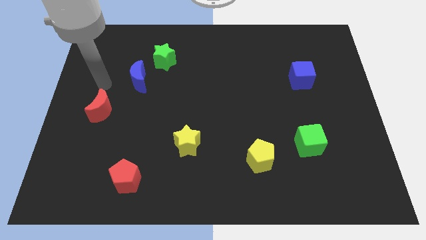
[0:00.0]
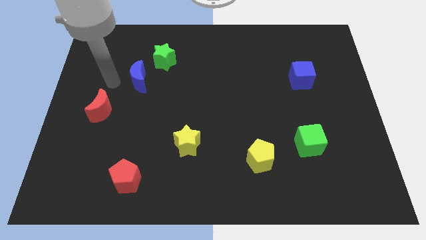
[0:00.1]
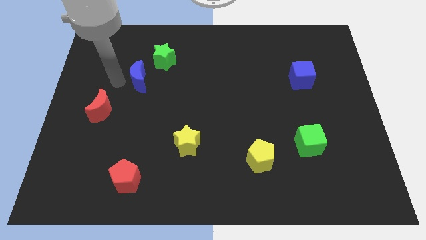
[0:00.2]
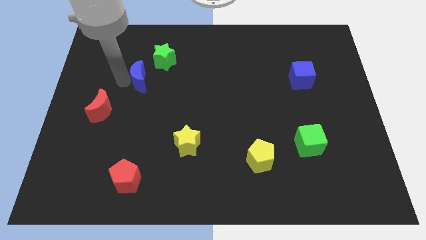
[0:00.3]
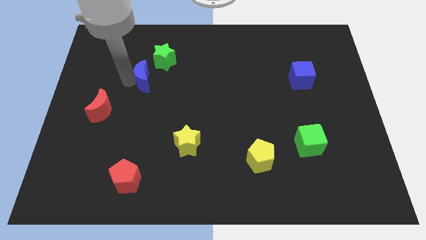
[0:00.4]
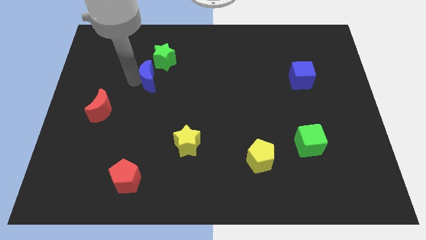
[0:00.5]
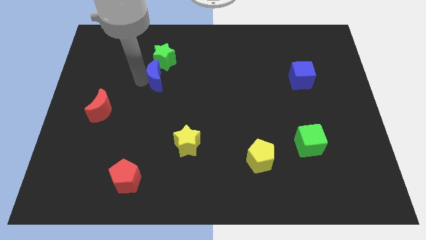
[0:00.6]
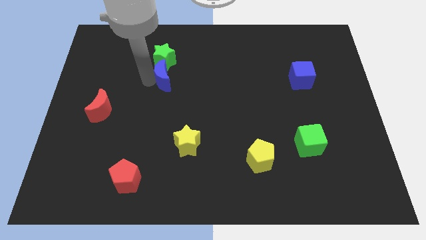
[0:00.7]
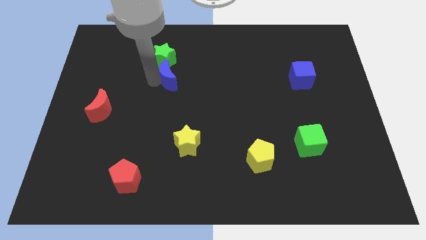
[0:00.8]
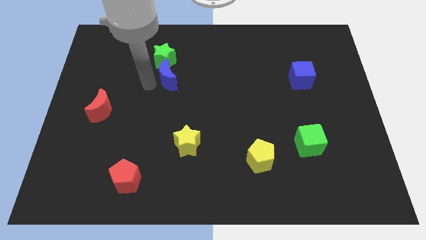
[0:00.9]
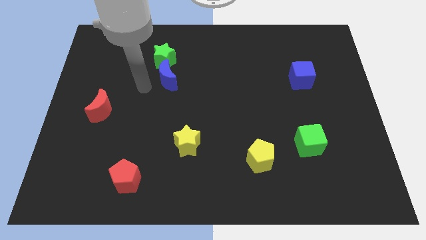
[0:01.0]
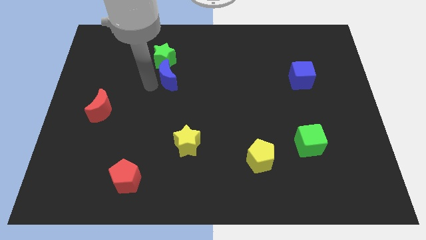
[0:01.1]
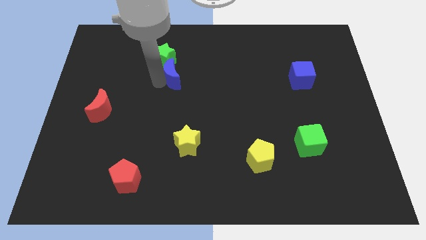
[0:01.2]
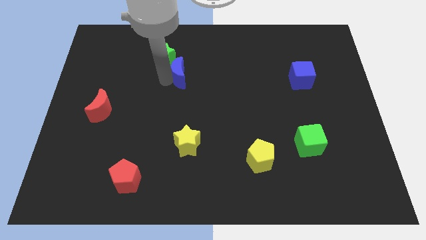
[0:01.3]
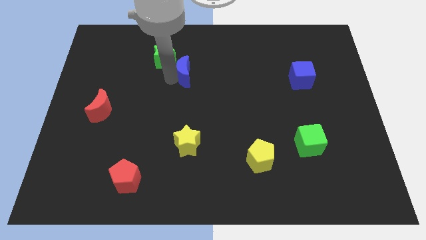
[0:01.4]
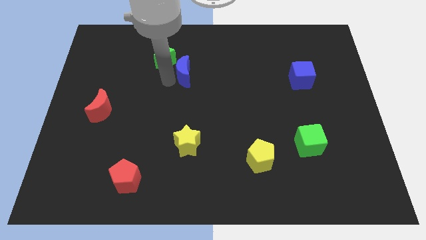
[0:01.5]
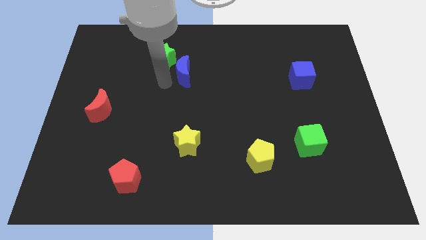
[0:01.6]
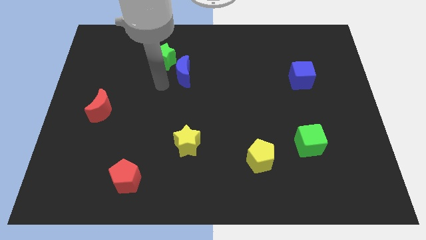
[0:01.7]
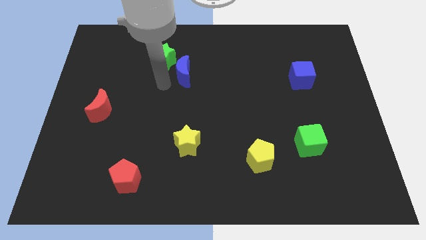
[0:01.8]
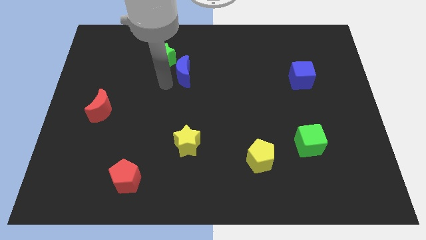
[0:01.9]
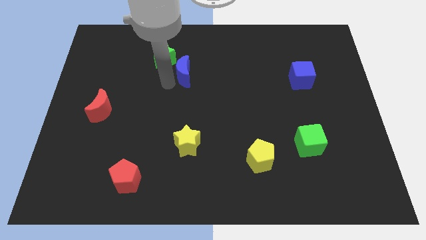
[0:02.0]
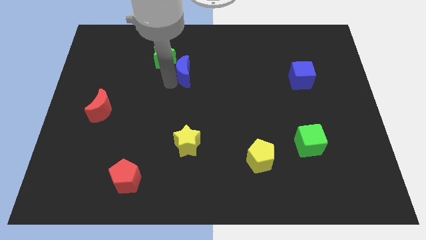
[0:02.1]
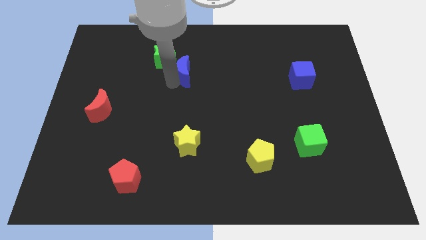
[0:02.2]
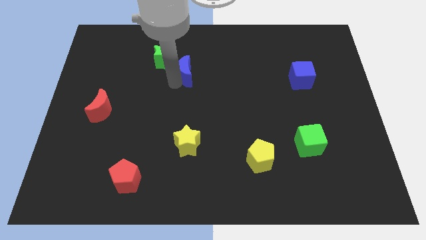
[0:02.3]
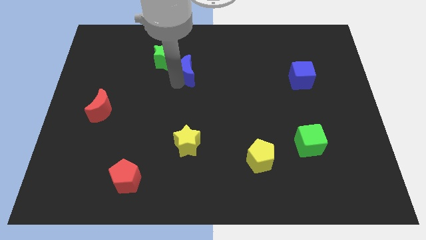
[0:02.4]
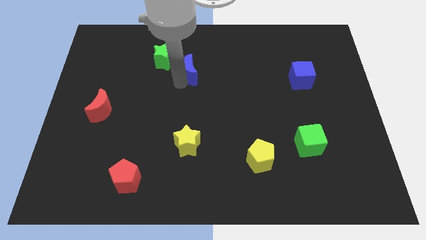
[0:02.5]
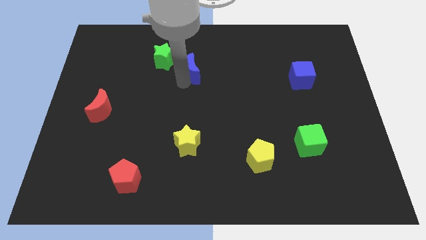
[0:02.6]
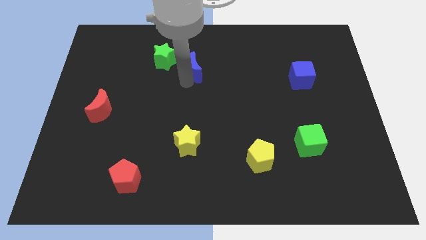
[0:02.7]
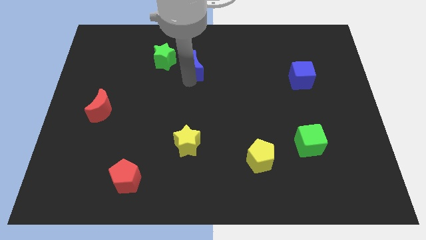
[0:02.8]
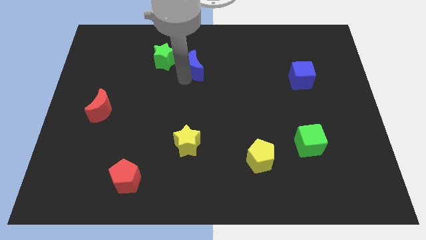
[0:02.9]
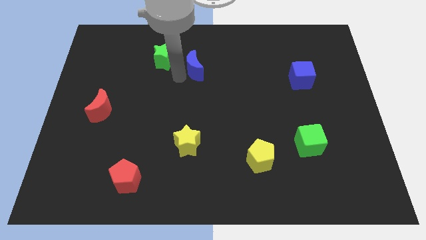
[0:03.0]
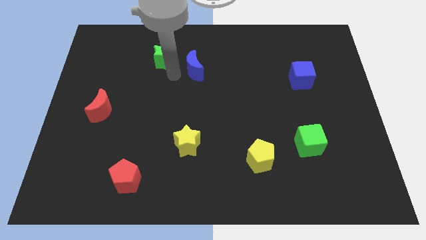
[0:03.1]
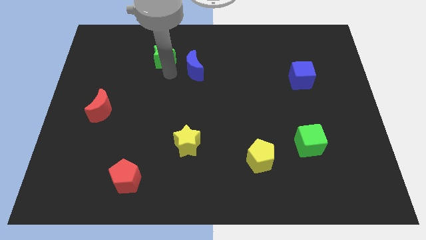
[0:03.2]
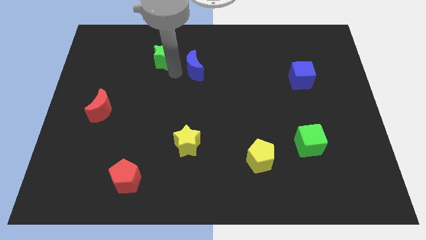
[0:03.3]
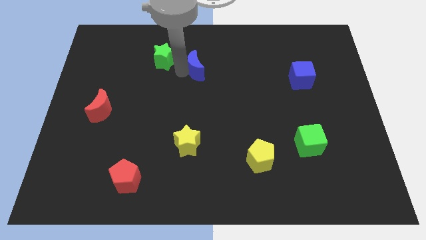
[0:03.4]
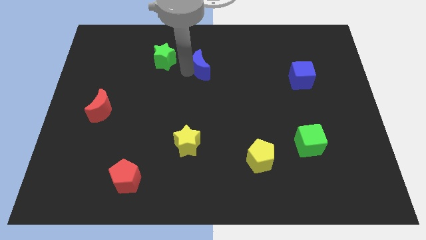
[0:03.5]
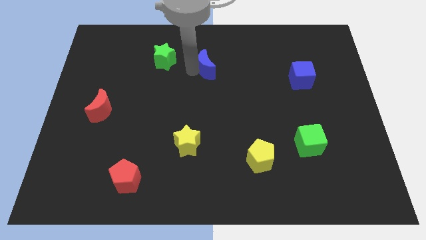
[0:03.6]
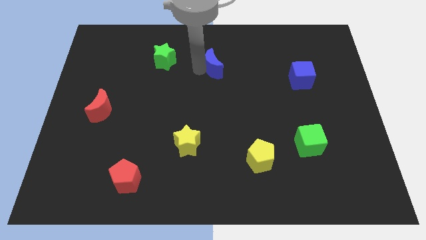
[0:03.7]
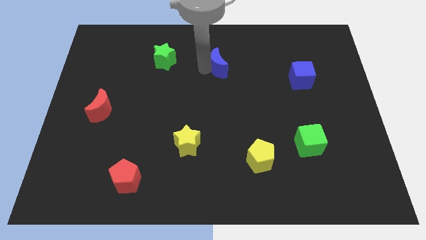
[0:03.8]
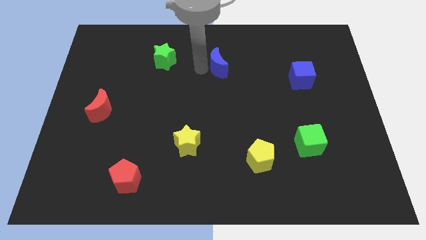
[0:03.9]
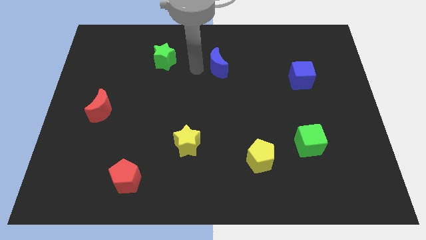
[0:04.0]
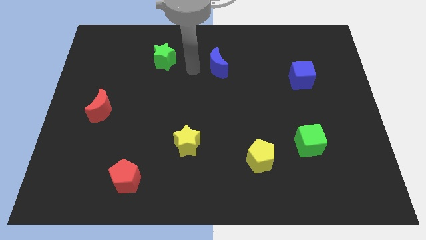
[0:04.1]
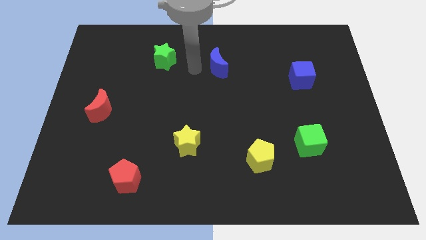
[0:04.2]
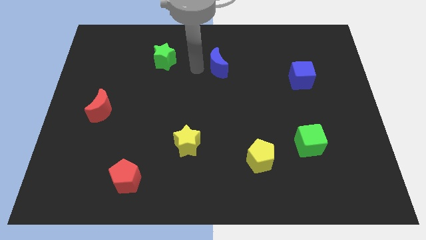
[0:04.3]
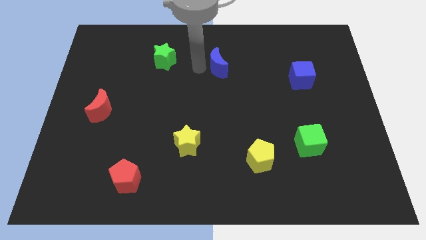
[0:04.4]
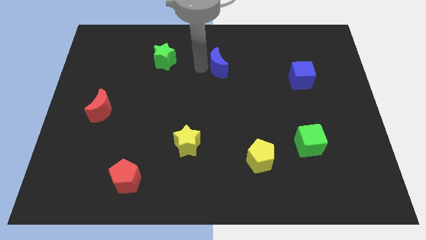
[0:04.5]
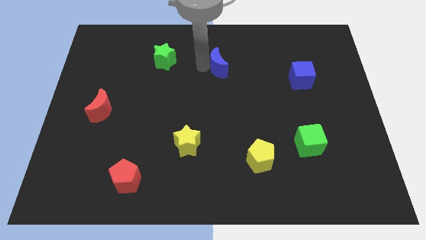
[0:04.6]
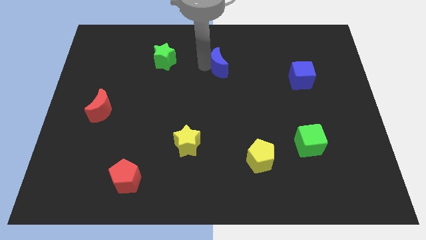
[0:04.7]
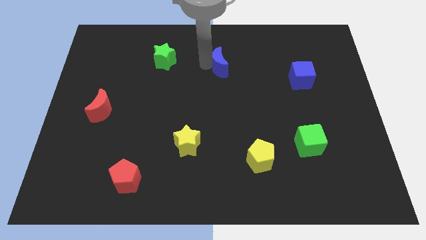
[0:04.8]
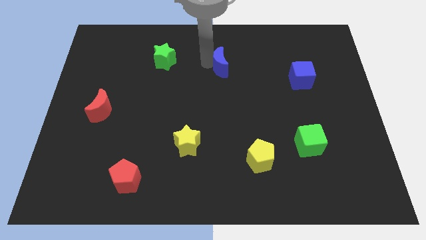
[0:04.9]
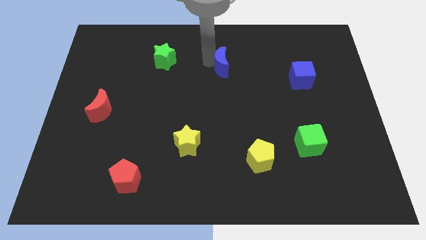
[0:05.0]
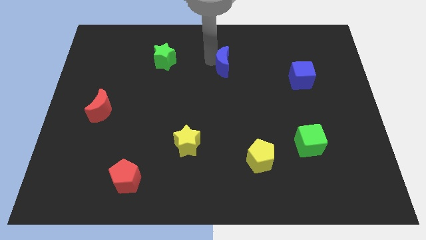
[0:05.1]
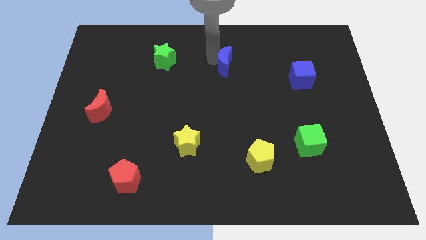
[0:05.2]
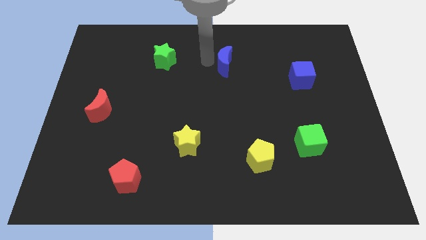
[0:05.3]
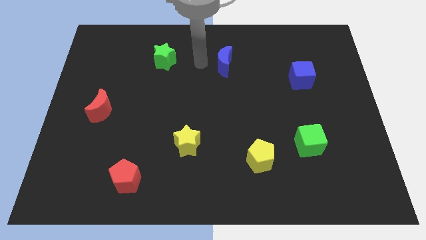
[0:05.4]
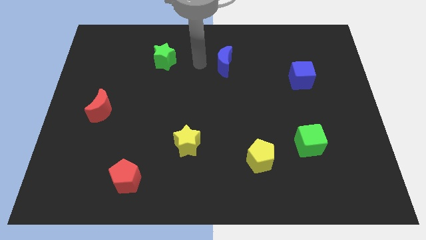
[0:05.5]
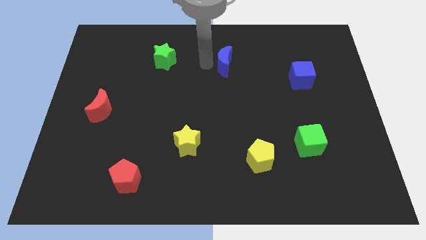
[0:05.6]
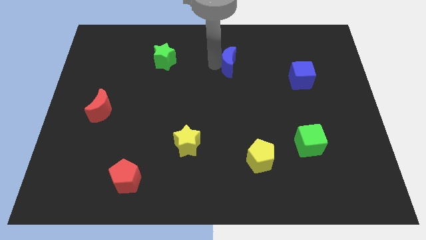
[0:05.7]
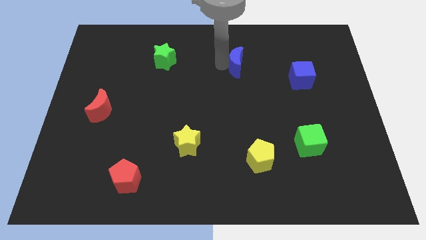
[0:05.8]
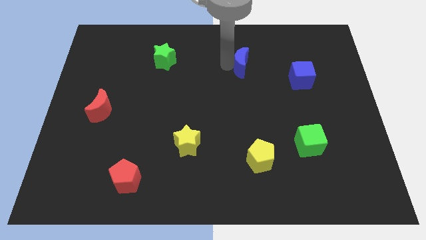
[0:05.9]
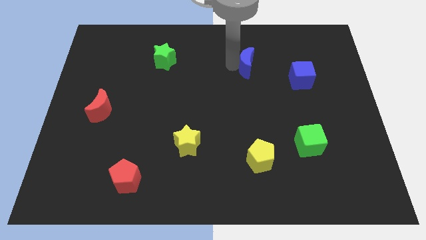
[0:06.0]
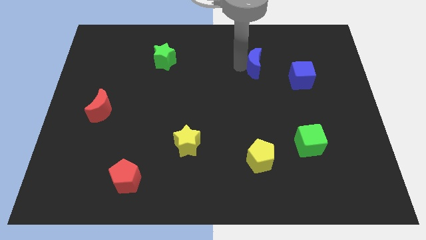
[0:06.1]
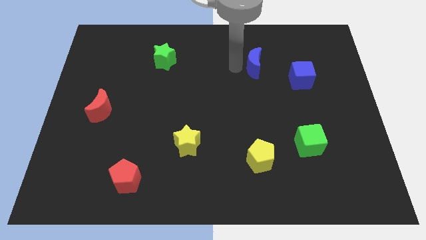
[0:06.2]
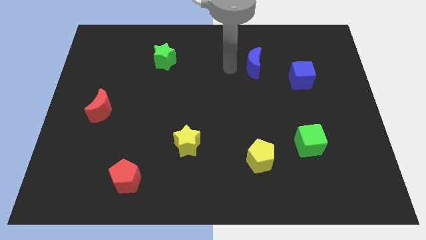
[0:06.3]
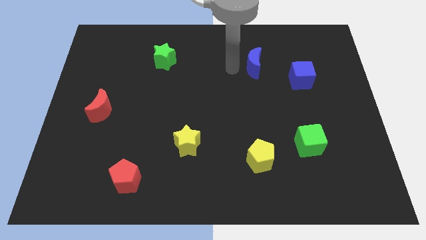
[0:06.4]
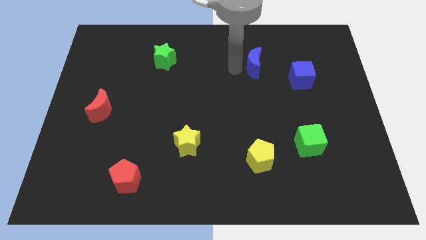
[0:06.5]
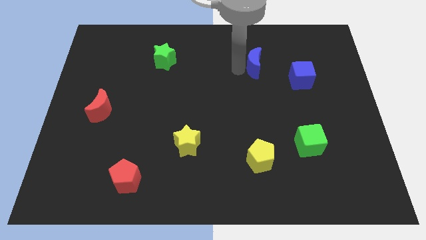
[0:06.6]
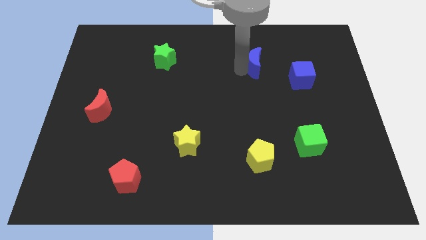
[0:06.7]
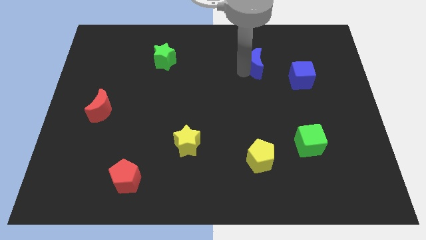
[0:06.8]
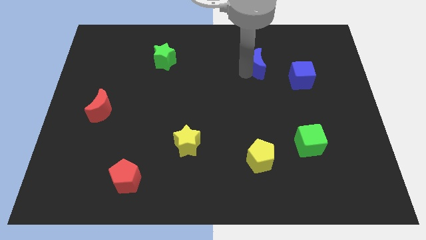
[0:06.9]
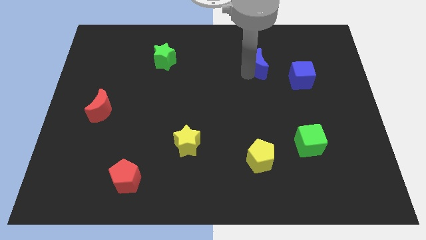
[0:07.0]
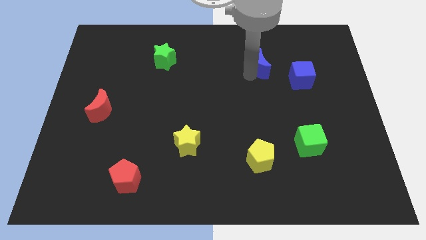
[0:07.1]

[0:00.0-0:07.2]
slide the blue moon diagonally up and to the left of the blue cube
